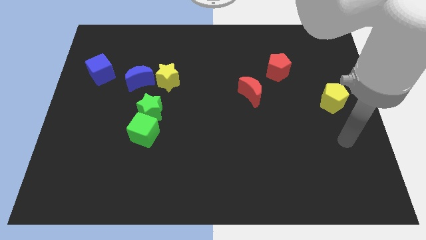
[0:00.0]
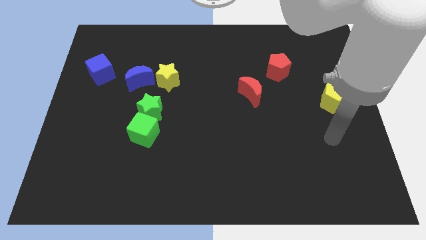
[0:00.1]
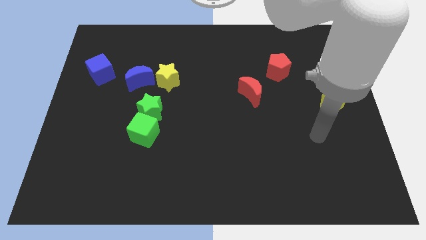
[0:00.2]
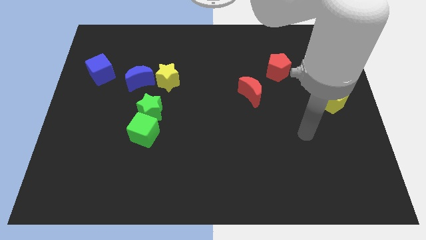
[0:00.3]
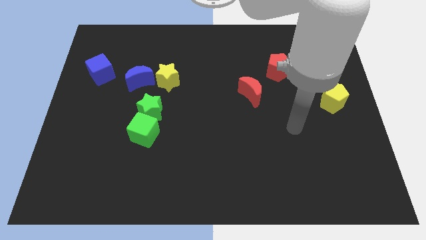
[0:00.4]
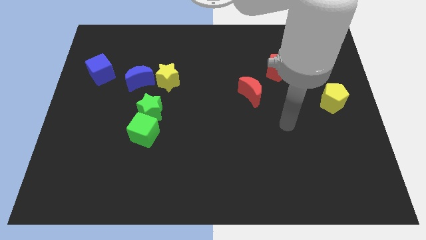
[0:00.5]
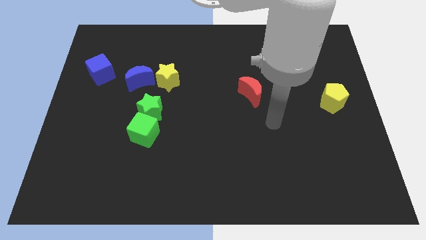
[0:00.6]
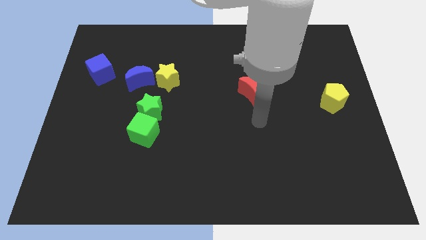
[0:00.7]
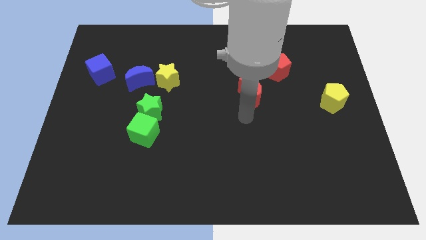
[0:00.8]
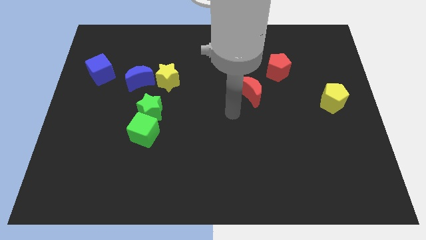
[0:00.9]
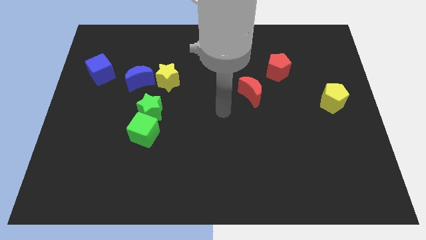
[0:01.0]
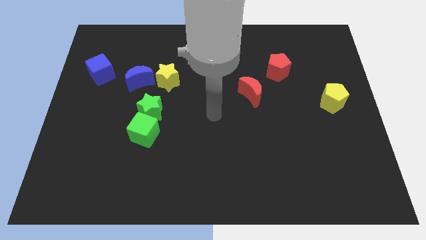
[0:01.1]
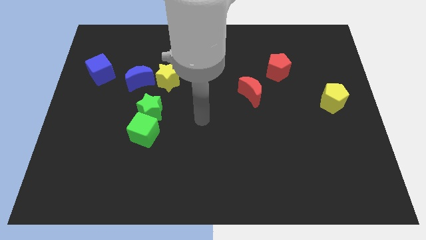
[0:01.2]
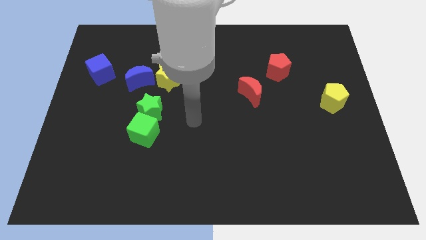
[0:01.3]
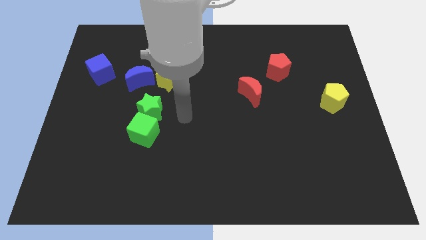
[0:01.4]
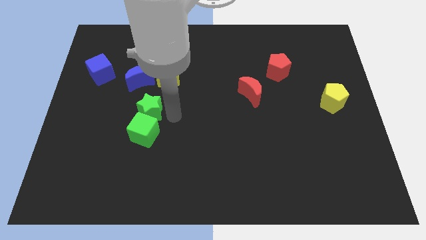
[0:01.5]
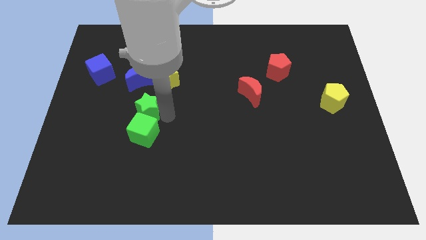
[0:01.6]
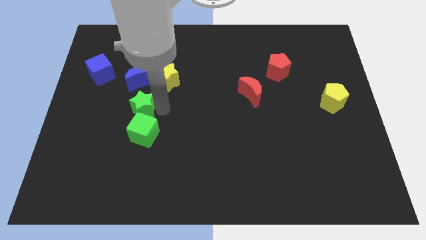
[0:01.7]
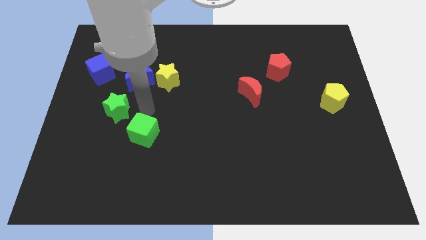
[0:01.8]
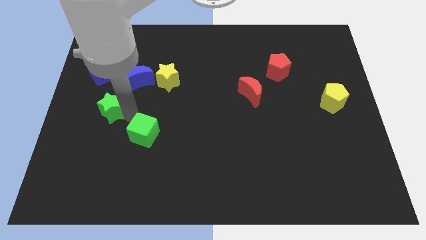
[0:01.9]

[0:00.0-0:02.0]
separate the green cube from the green star

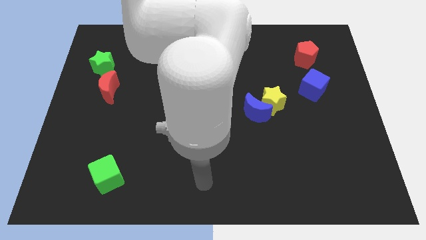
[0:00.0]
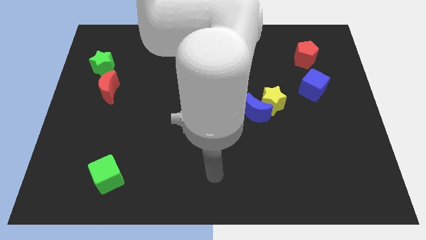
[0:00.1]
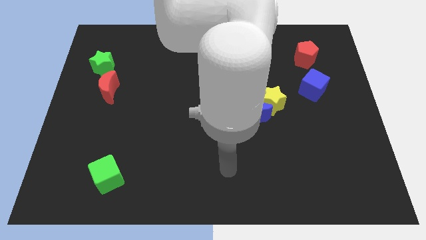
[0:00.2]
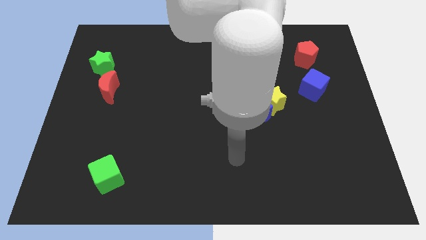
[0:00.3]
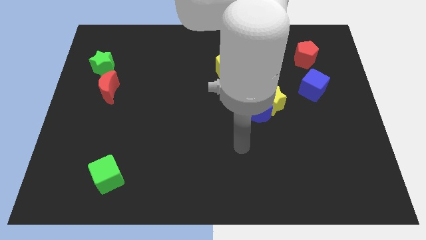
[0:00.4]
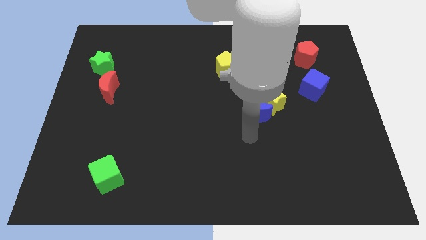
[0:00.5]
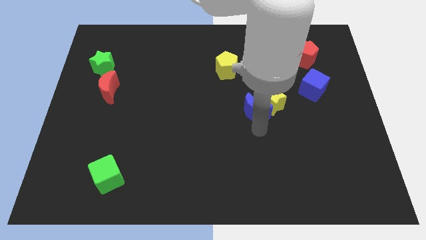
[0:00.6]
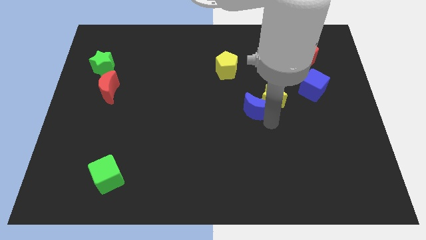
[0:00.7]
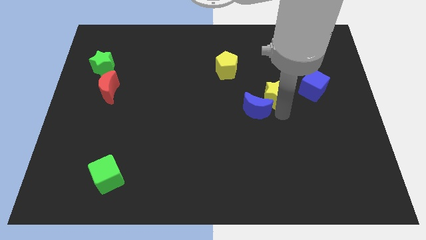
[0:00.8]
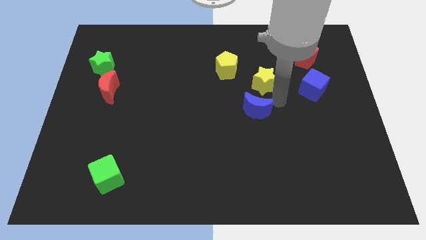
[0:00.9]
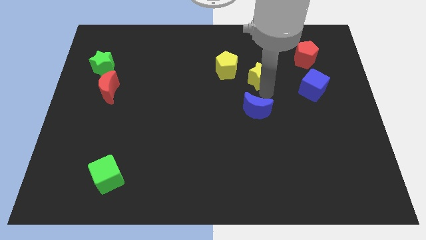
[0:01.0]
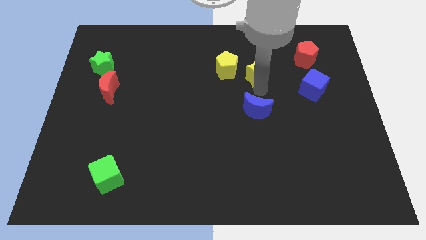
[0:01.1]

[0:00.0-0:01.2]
separate the blue moon from the yellow star

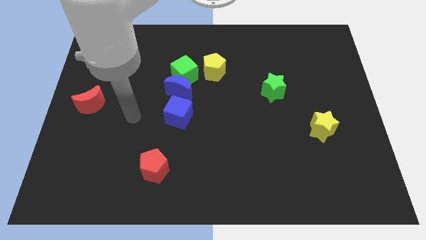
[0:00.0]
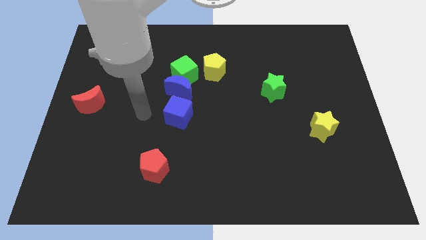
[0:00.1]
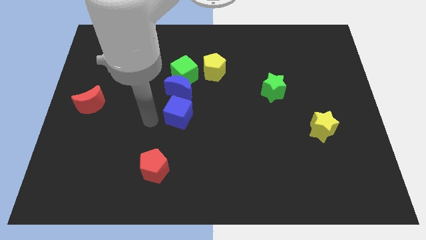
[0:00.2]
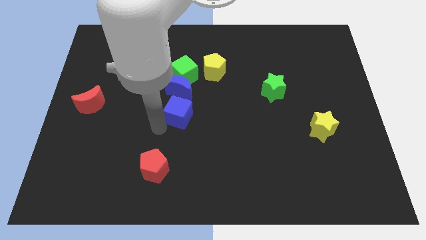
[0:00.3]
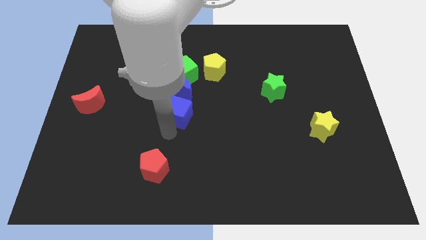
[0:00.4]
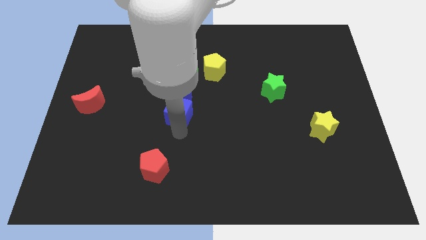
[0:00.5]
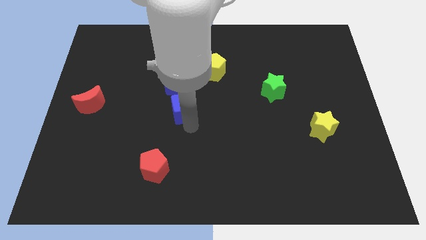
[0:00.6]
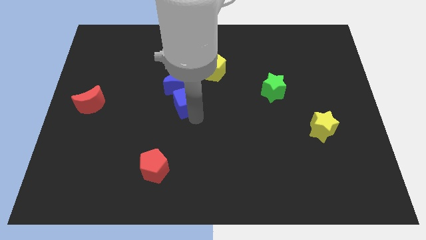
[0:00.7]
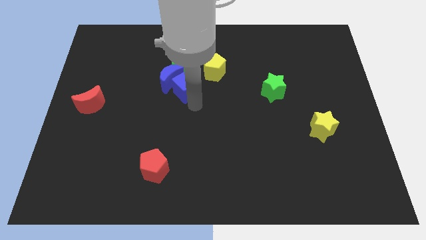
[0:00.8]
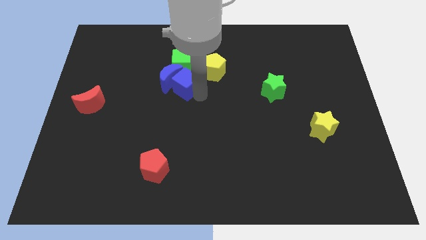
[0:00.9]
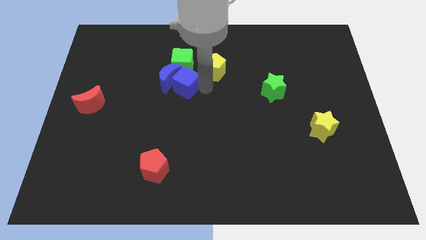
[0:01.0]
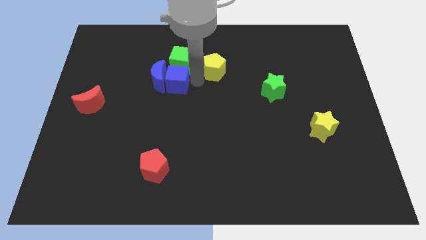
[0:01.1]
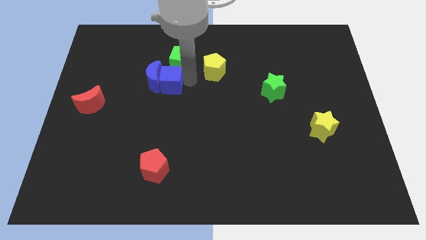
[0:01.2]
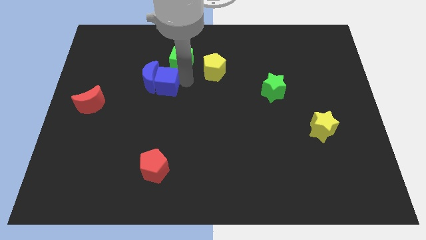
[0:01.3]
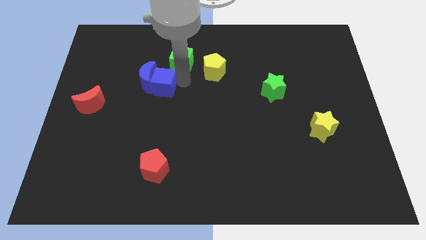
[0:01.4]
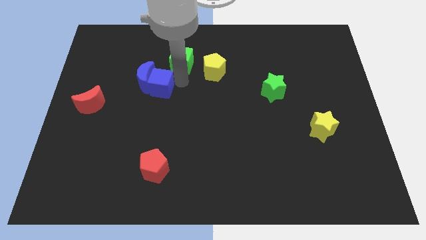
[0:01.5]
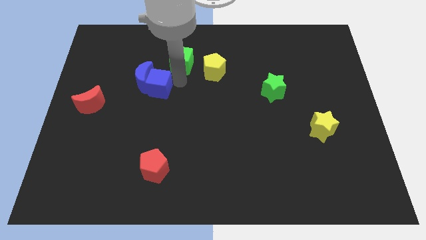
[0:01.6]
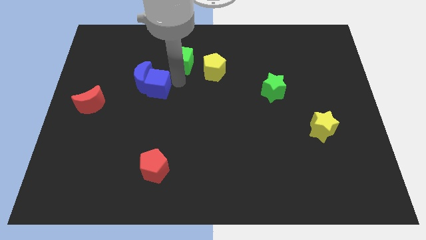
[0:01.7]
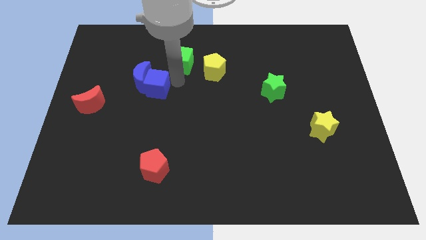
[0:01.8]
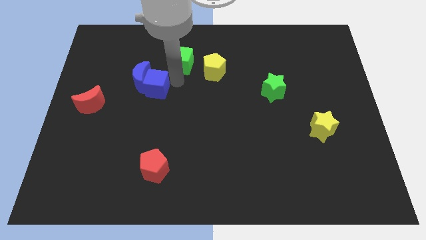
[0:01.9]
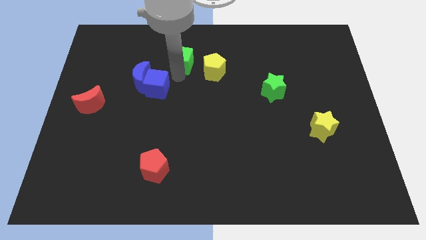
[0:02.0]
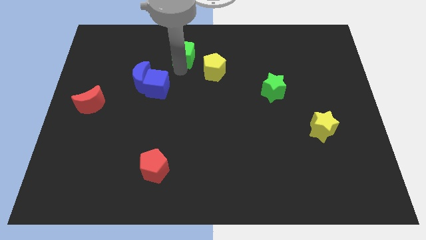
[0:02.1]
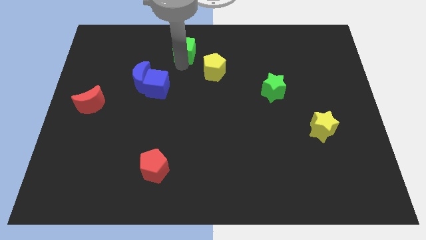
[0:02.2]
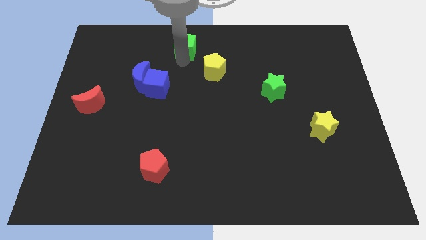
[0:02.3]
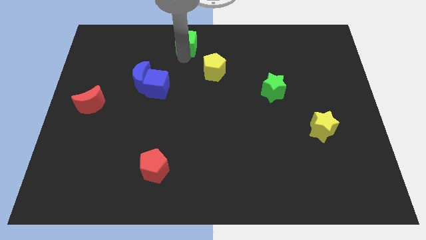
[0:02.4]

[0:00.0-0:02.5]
separate the green cube from the blue moon and yellow pentagon

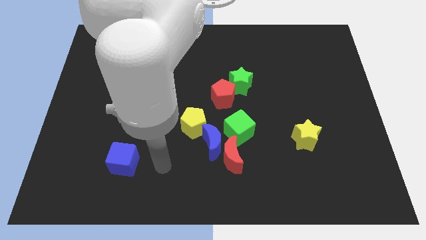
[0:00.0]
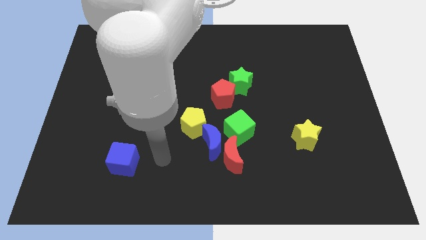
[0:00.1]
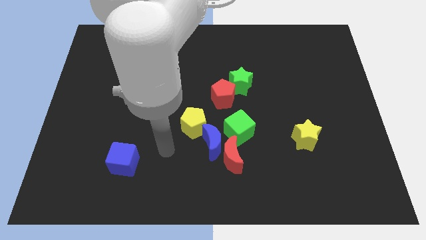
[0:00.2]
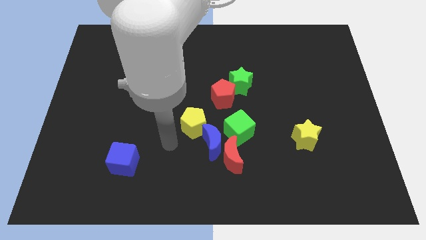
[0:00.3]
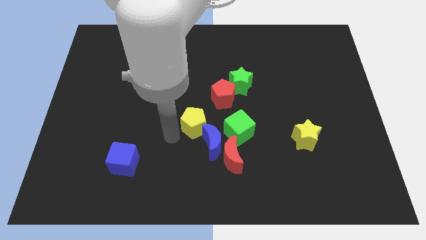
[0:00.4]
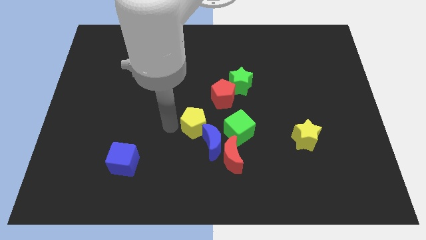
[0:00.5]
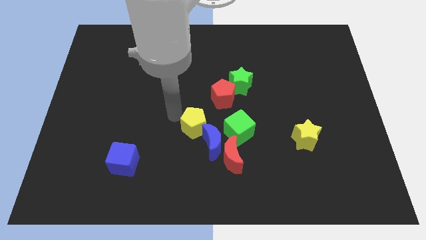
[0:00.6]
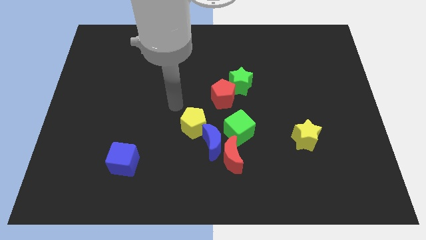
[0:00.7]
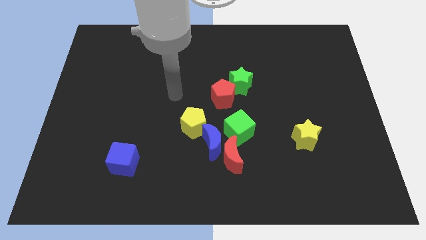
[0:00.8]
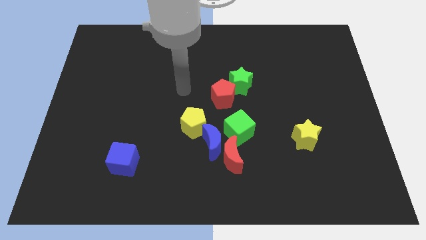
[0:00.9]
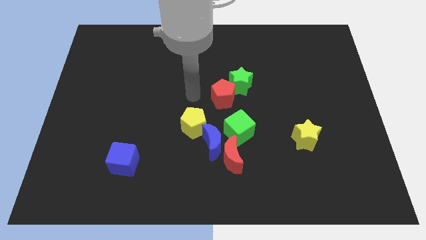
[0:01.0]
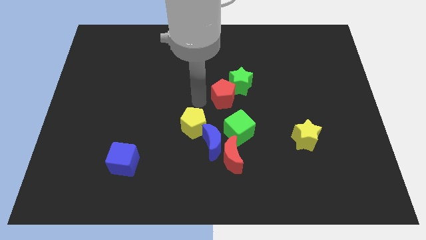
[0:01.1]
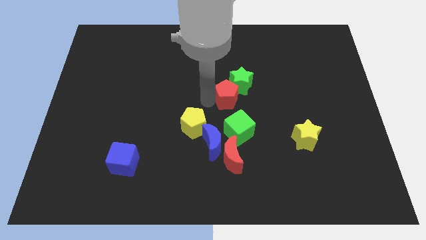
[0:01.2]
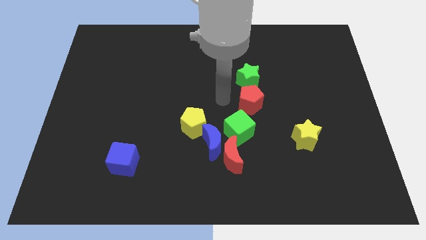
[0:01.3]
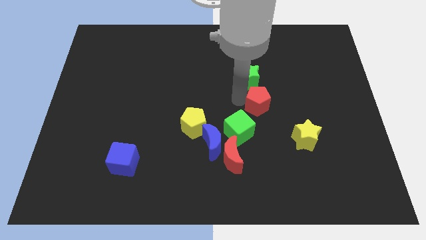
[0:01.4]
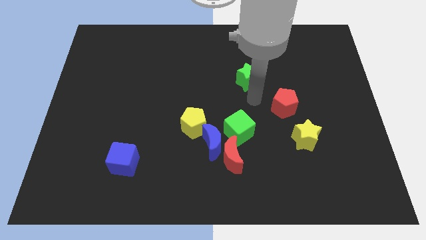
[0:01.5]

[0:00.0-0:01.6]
separate the green star from the red pentagon

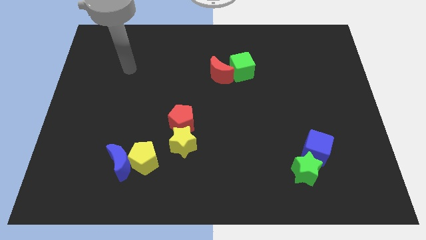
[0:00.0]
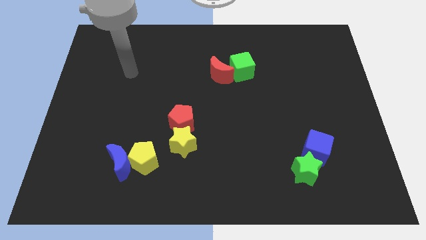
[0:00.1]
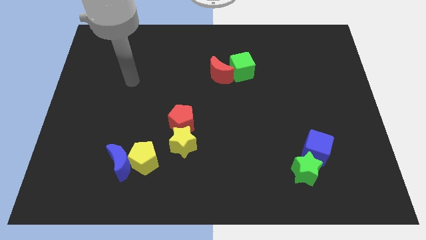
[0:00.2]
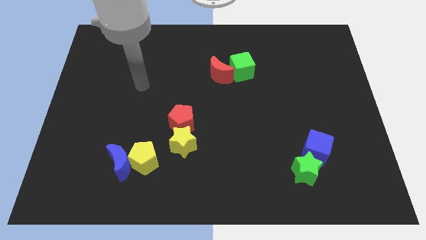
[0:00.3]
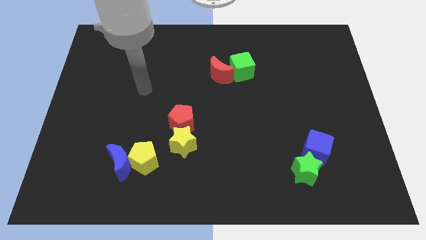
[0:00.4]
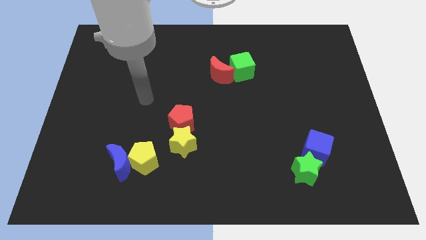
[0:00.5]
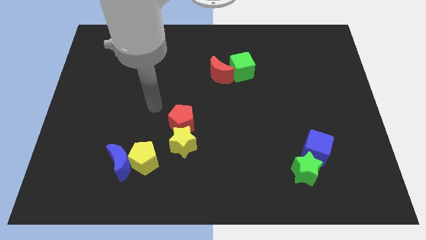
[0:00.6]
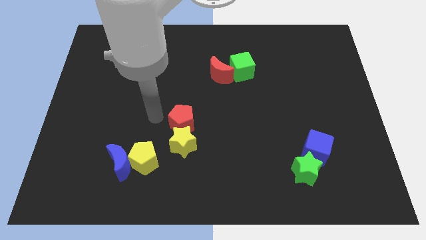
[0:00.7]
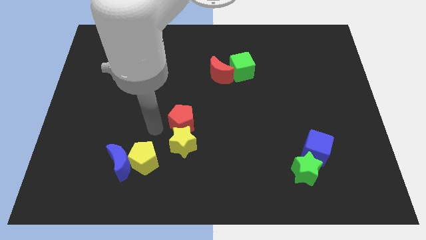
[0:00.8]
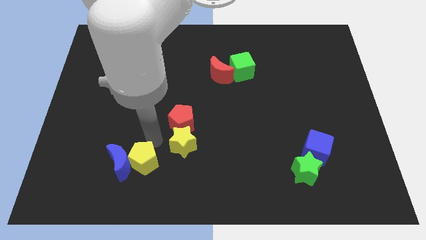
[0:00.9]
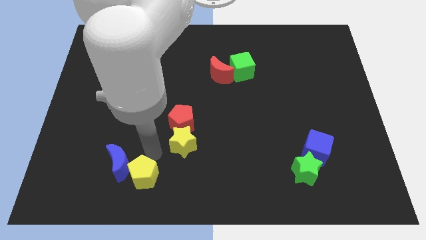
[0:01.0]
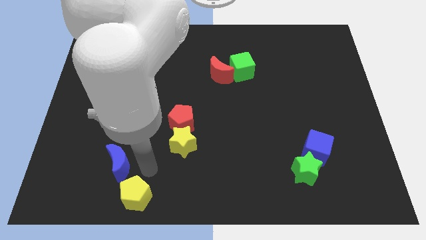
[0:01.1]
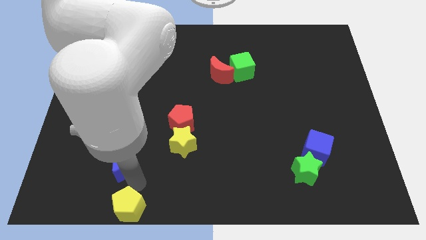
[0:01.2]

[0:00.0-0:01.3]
separate the blue moon from the yellow pentagon

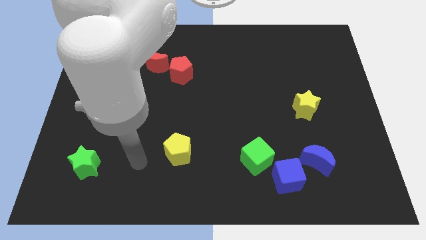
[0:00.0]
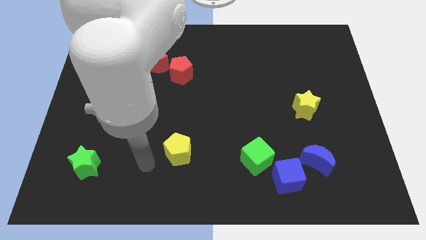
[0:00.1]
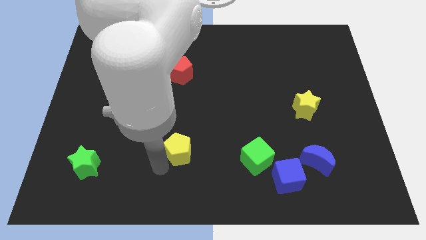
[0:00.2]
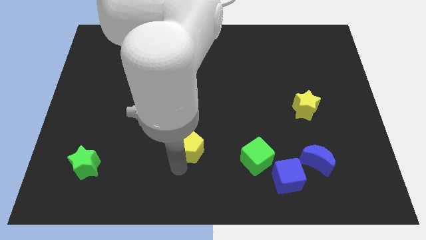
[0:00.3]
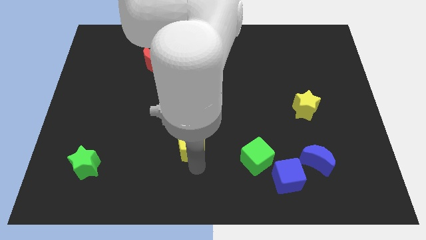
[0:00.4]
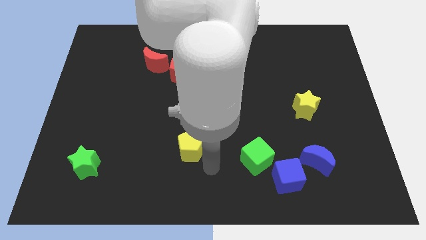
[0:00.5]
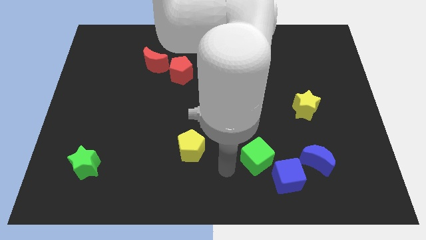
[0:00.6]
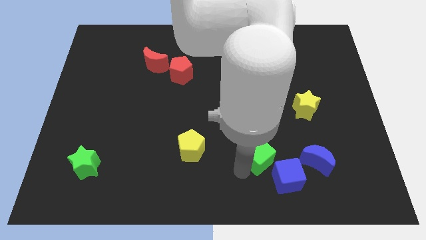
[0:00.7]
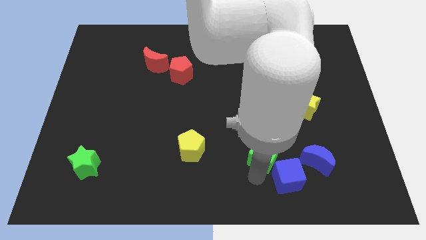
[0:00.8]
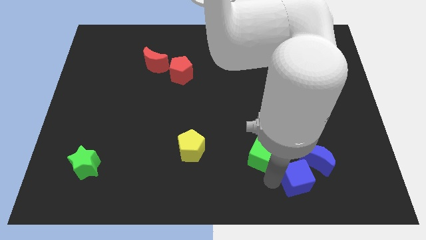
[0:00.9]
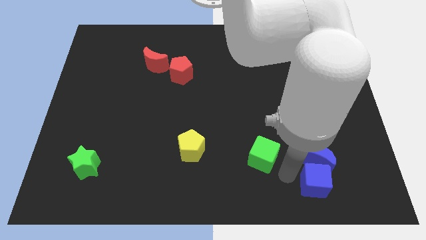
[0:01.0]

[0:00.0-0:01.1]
pull the green cube apart from the blue cube
